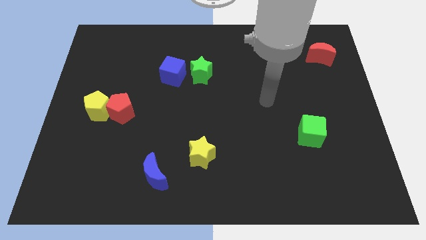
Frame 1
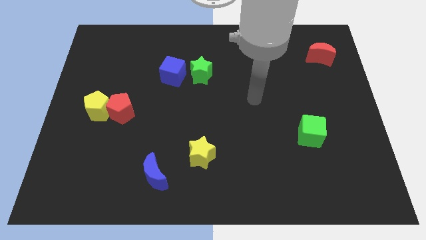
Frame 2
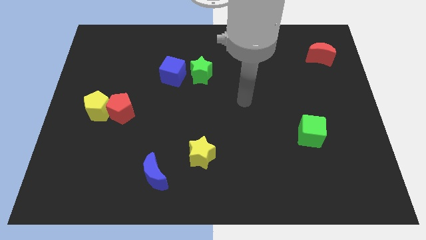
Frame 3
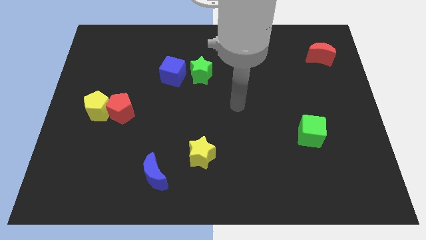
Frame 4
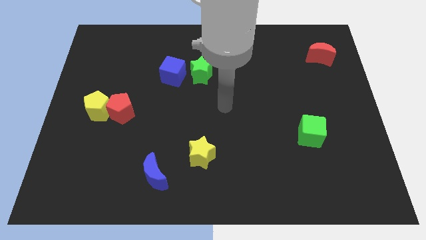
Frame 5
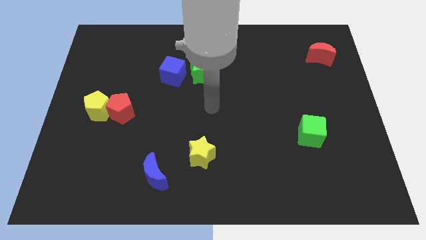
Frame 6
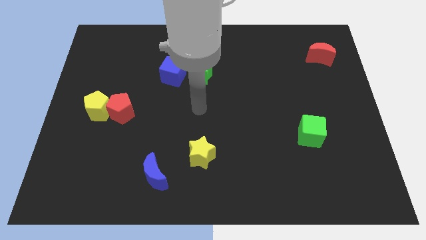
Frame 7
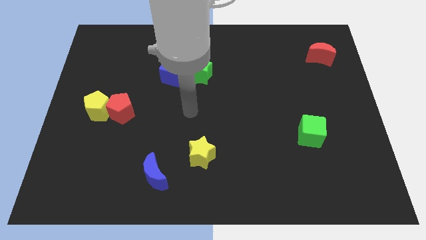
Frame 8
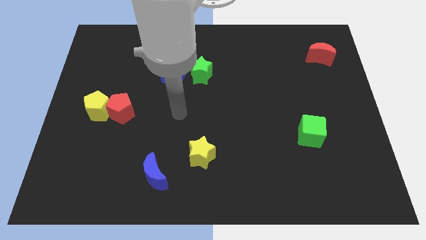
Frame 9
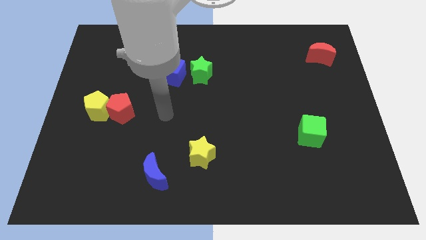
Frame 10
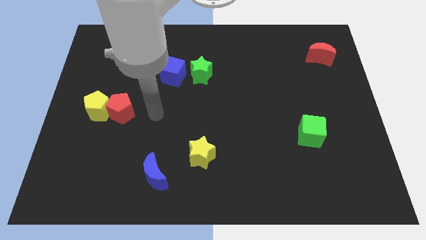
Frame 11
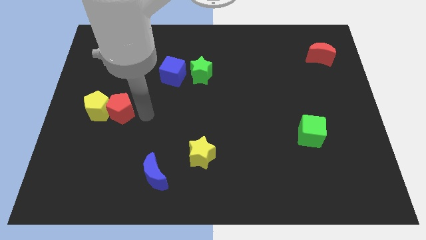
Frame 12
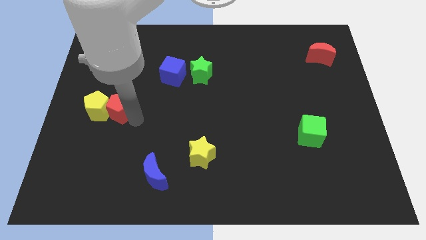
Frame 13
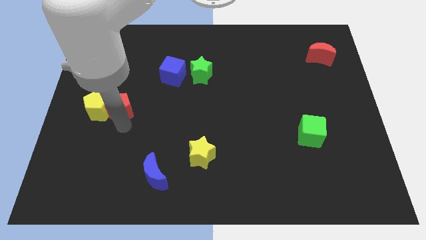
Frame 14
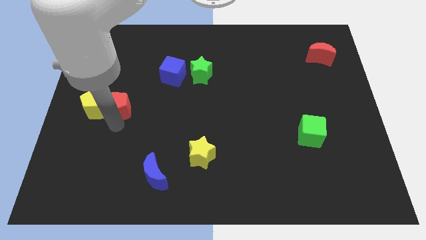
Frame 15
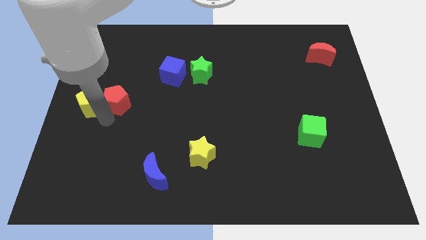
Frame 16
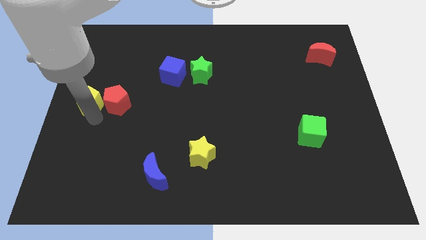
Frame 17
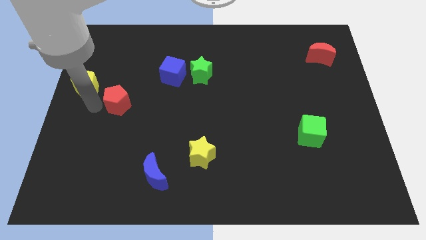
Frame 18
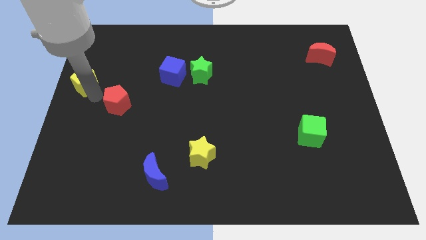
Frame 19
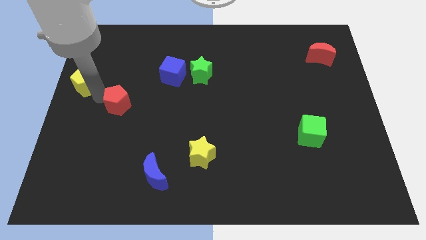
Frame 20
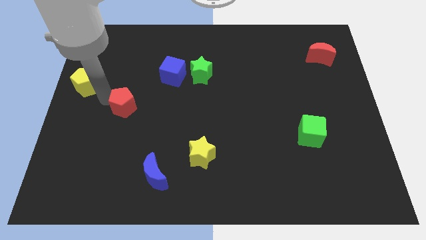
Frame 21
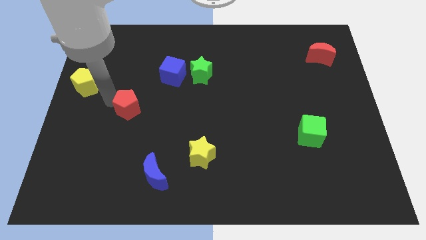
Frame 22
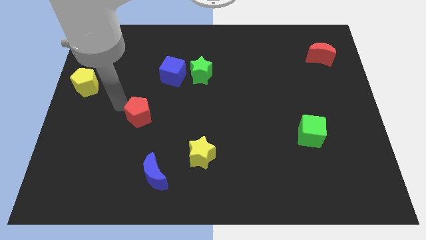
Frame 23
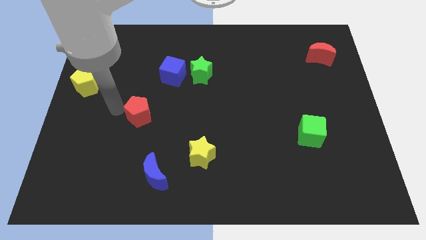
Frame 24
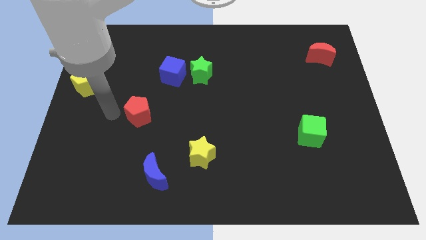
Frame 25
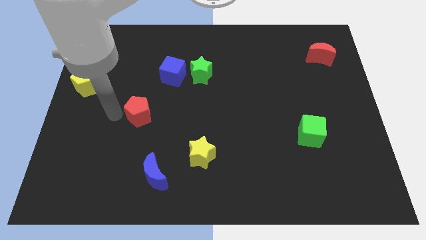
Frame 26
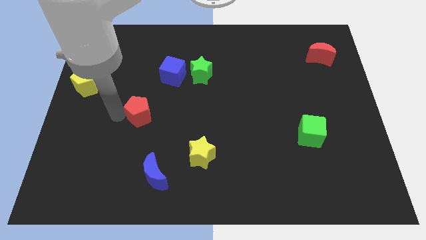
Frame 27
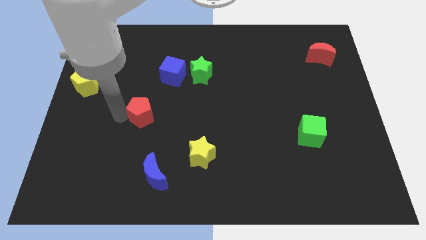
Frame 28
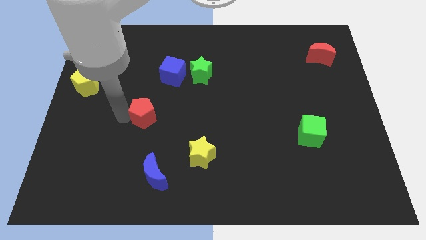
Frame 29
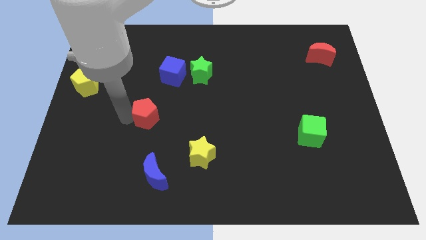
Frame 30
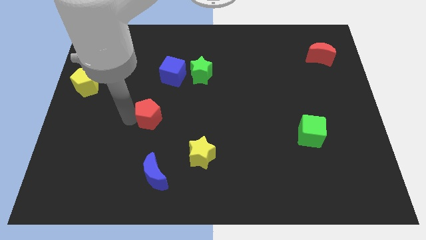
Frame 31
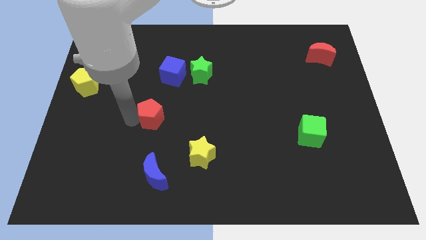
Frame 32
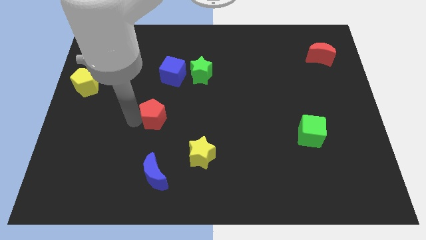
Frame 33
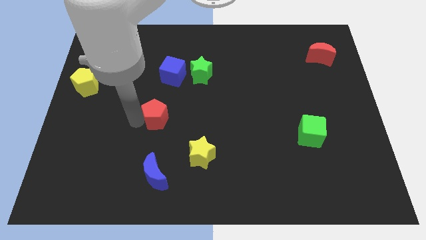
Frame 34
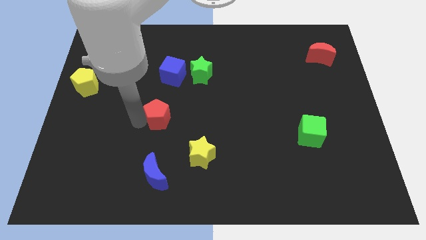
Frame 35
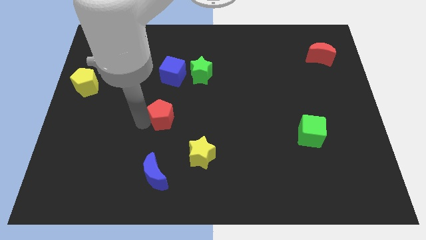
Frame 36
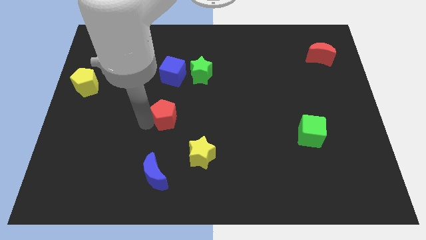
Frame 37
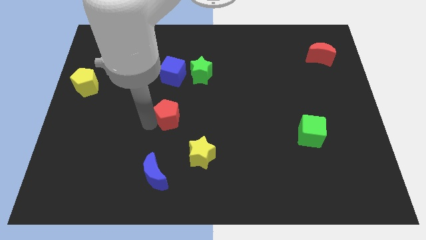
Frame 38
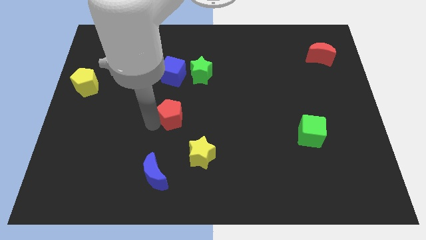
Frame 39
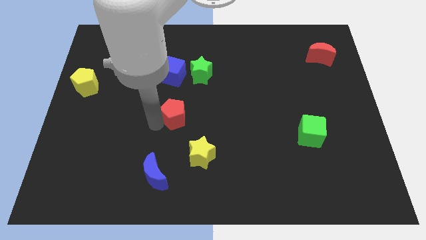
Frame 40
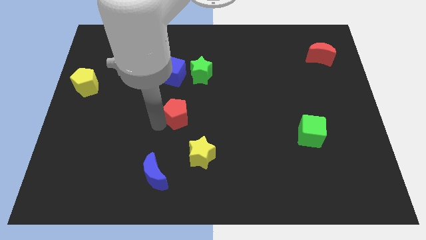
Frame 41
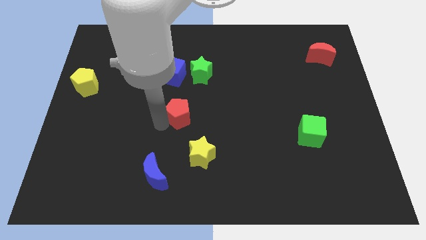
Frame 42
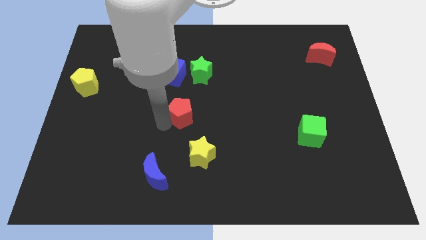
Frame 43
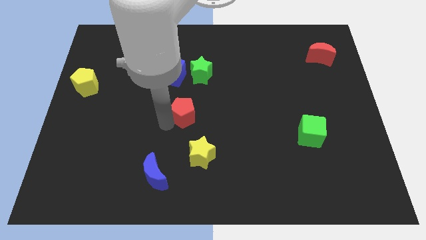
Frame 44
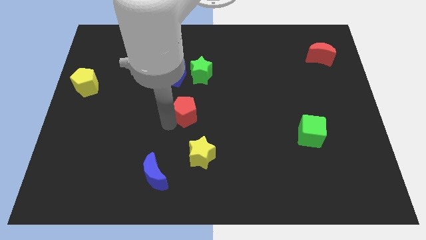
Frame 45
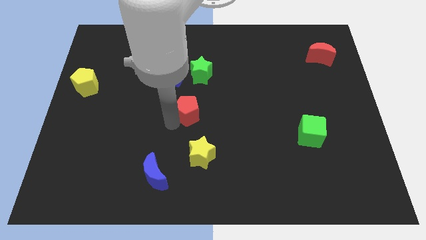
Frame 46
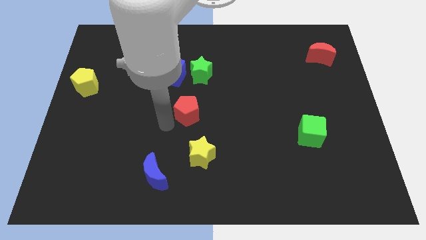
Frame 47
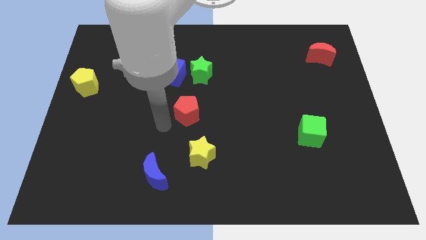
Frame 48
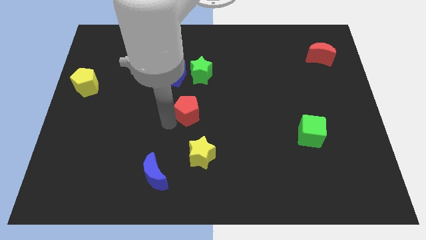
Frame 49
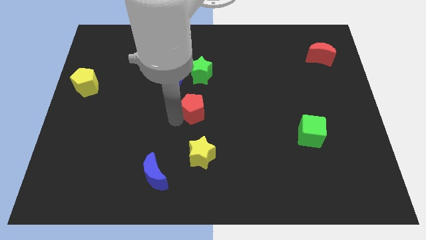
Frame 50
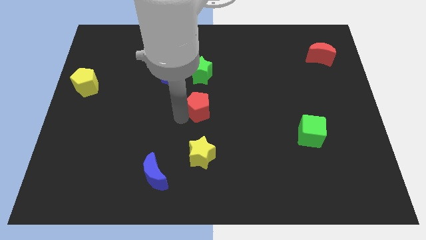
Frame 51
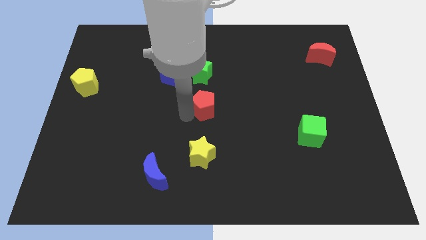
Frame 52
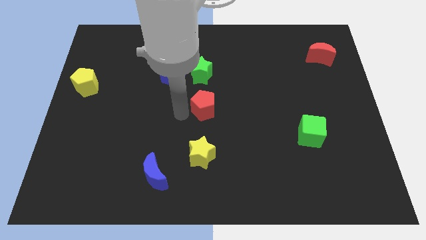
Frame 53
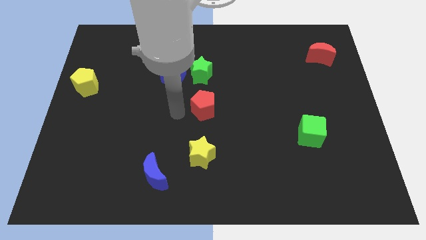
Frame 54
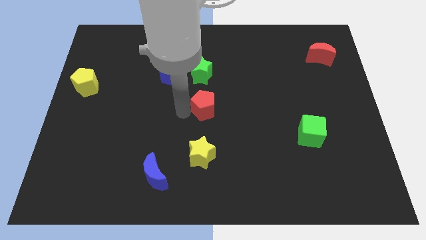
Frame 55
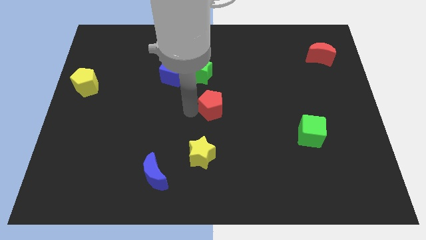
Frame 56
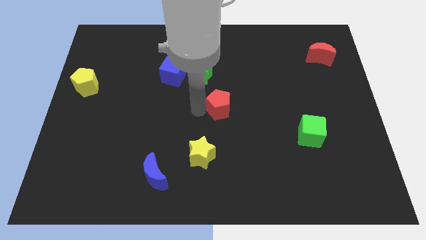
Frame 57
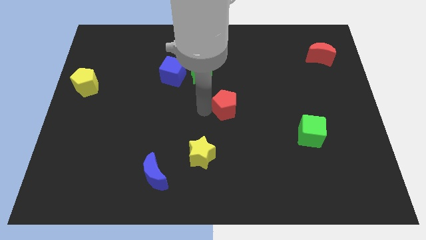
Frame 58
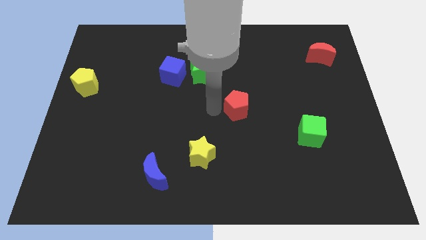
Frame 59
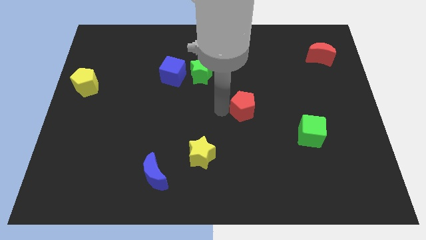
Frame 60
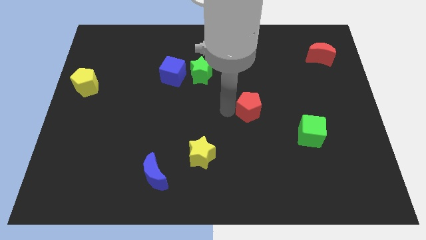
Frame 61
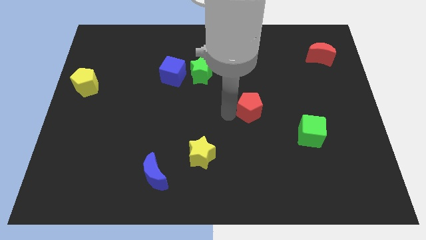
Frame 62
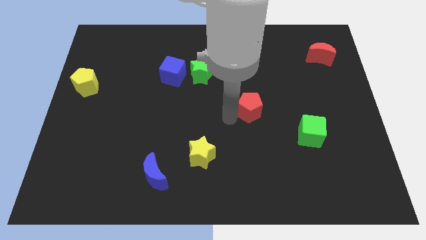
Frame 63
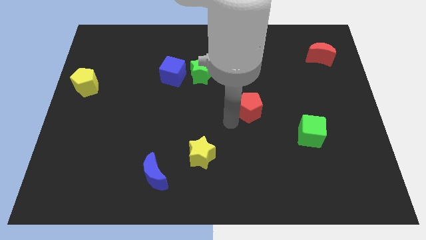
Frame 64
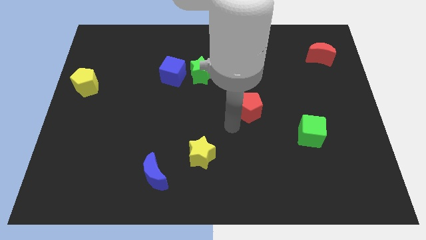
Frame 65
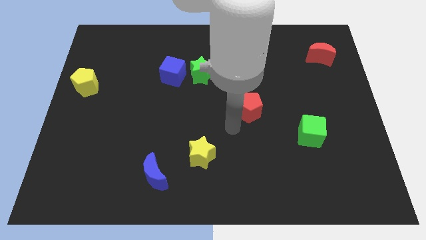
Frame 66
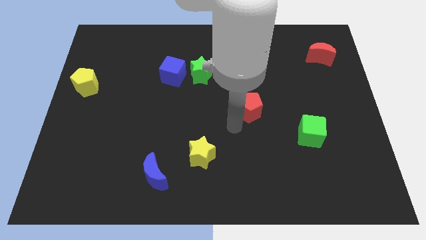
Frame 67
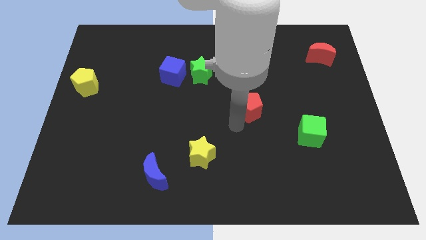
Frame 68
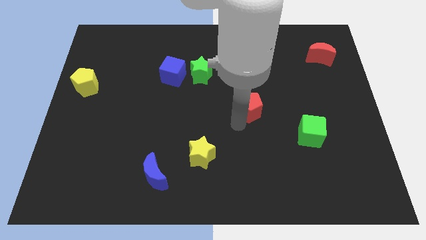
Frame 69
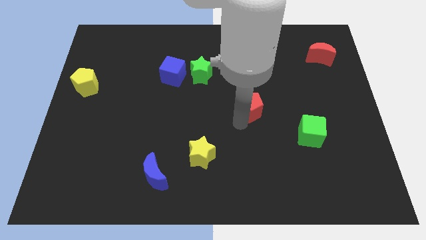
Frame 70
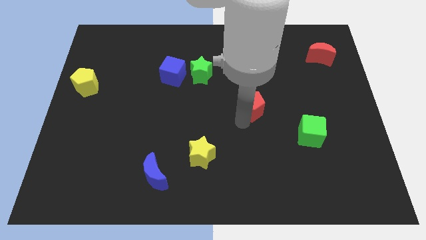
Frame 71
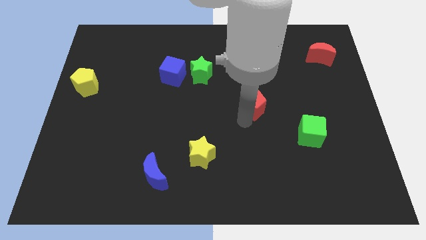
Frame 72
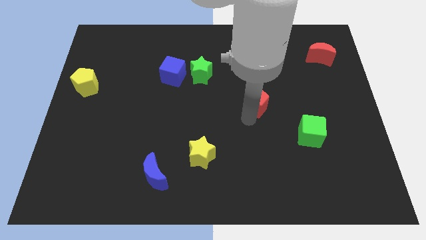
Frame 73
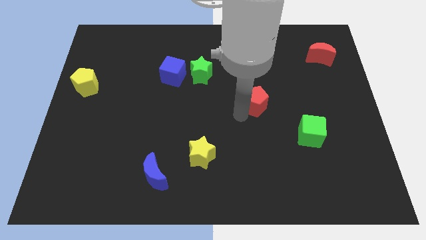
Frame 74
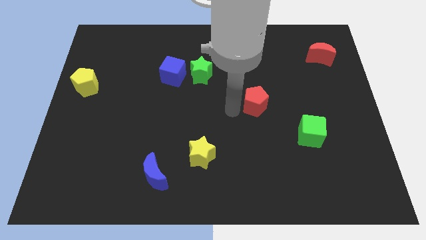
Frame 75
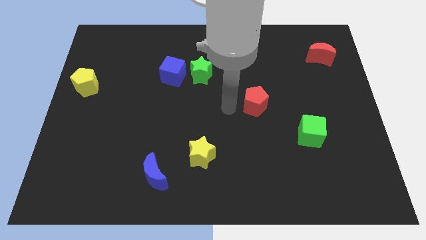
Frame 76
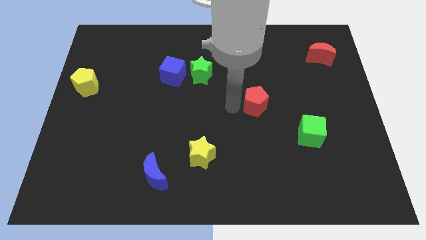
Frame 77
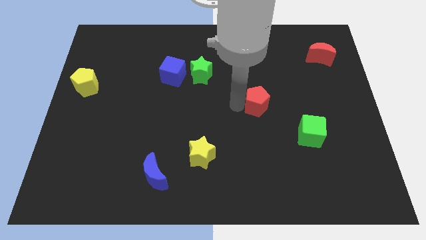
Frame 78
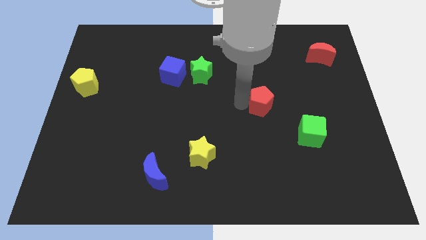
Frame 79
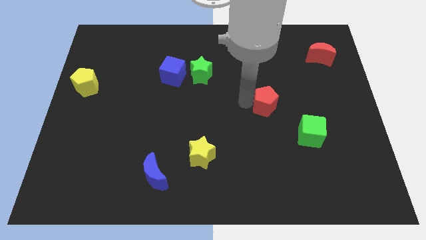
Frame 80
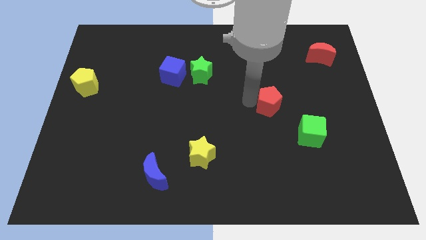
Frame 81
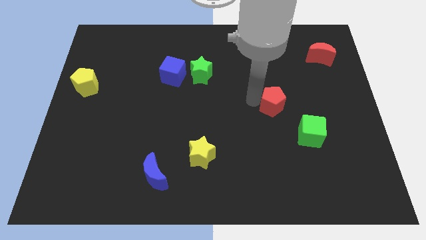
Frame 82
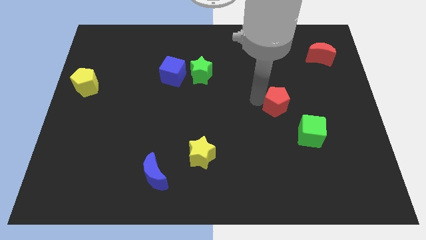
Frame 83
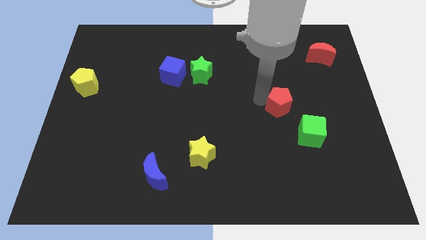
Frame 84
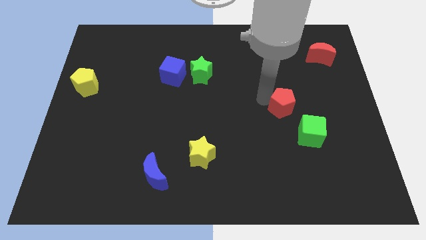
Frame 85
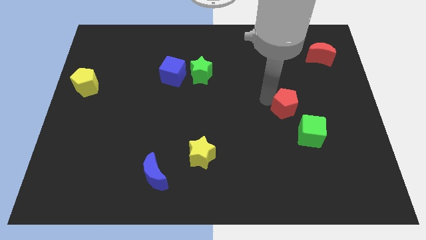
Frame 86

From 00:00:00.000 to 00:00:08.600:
slide the red pentagon above the green cube
